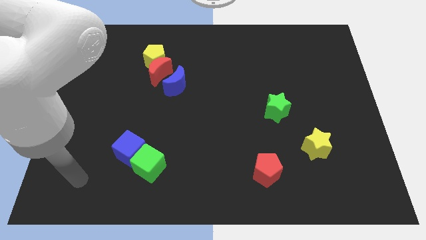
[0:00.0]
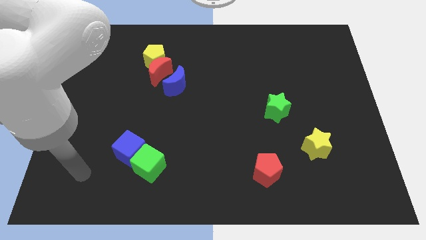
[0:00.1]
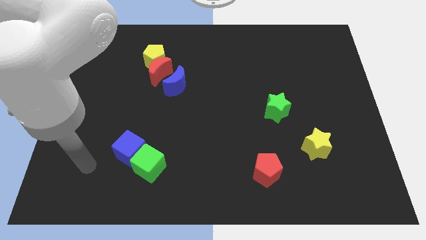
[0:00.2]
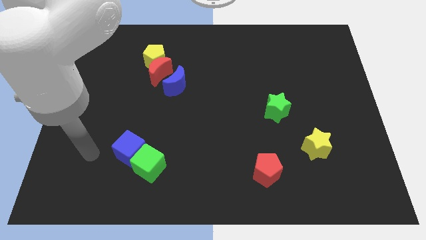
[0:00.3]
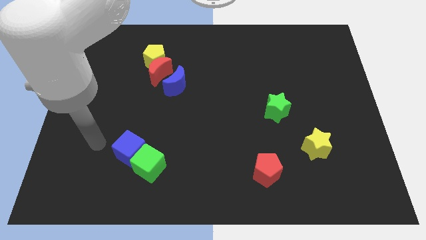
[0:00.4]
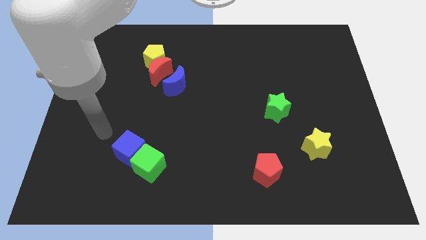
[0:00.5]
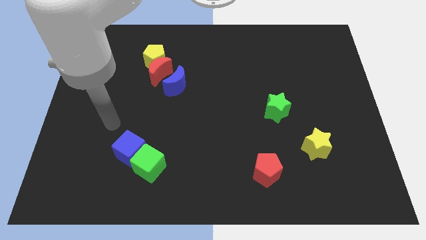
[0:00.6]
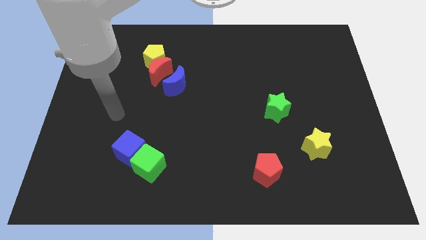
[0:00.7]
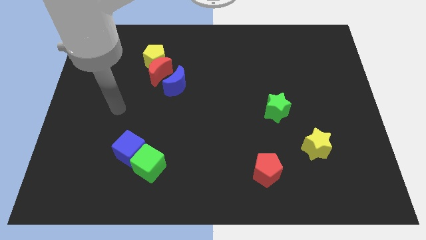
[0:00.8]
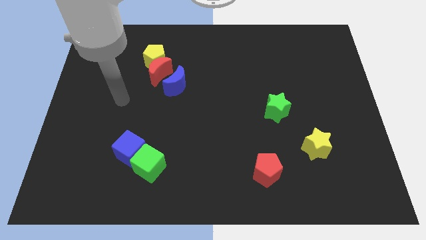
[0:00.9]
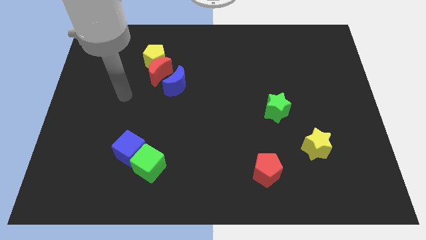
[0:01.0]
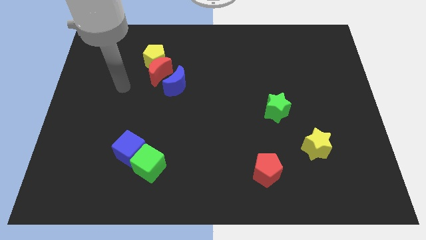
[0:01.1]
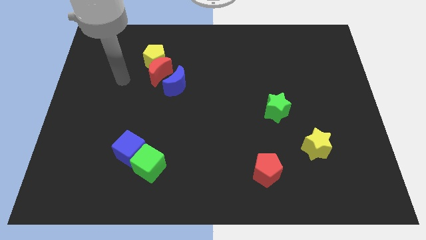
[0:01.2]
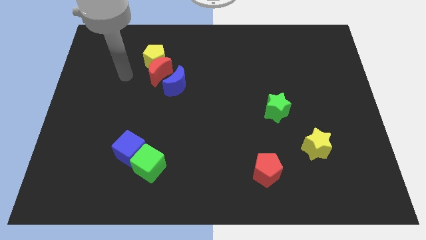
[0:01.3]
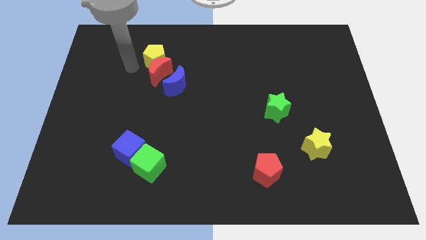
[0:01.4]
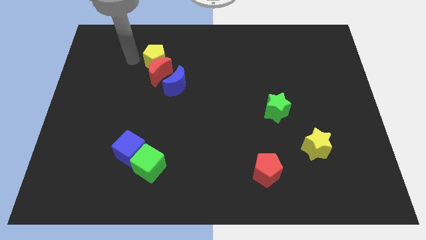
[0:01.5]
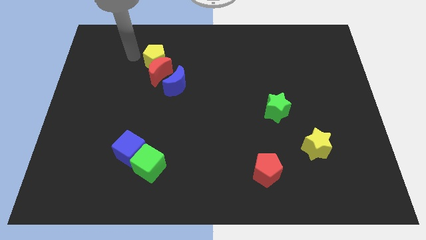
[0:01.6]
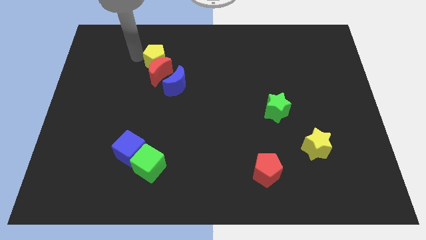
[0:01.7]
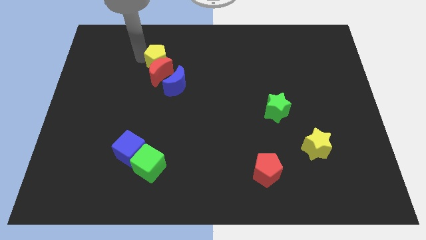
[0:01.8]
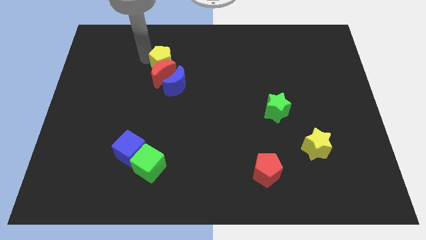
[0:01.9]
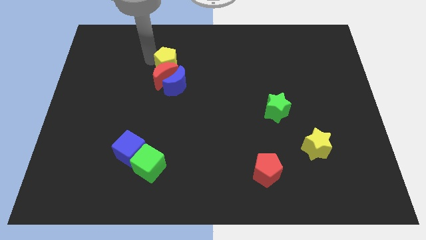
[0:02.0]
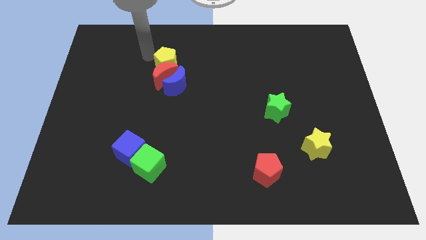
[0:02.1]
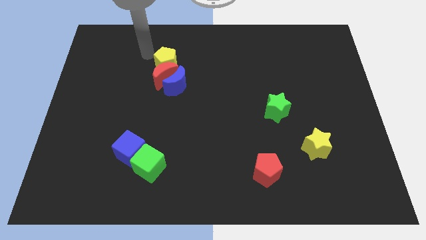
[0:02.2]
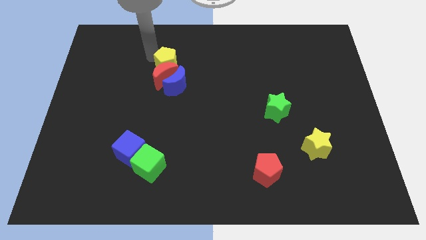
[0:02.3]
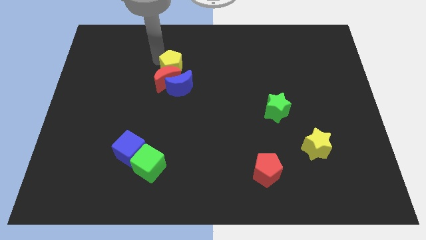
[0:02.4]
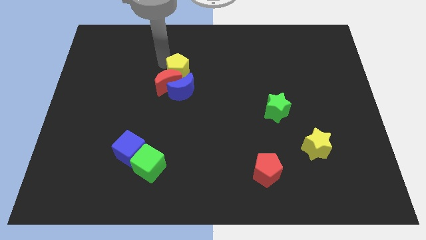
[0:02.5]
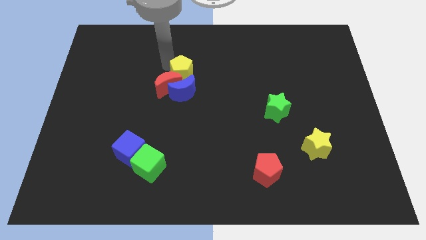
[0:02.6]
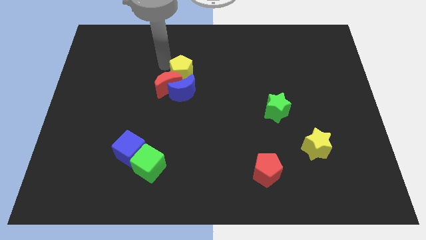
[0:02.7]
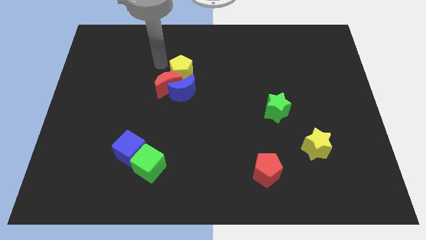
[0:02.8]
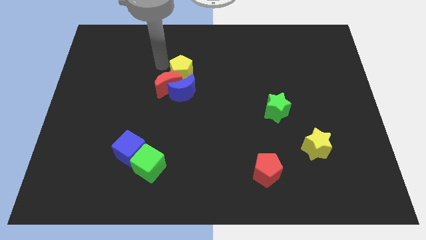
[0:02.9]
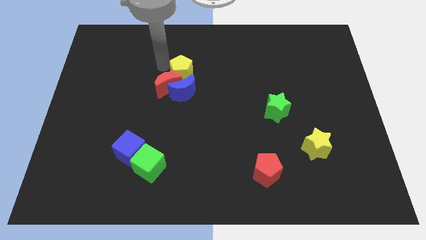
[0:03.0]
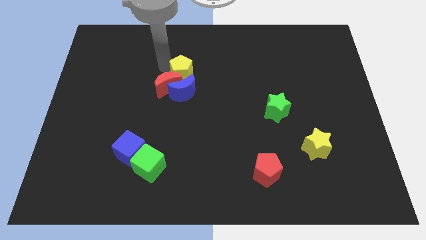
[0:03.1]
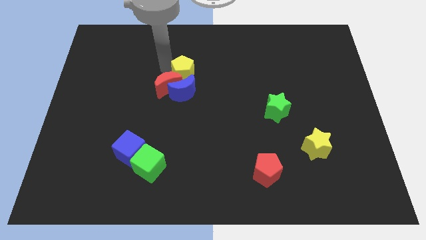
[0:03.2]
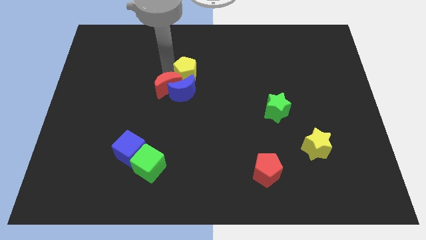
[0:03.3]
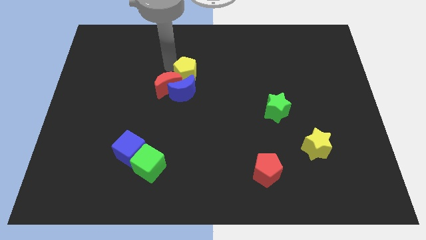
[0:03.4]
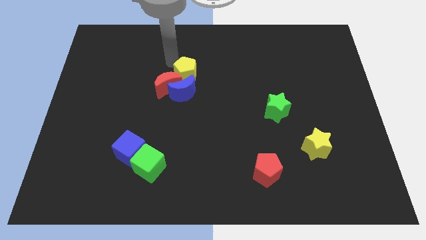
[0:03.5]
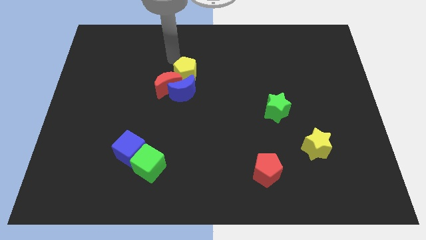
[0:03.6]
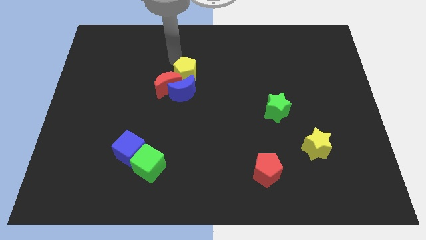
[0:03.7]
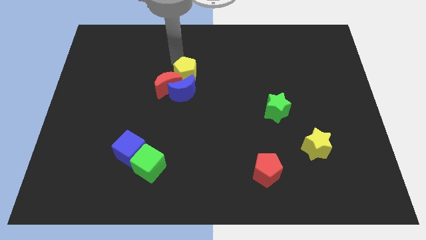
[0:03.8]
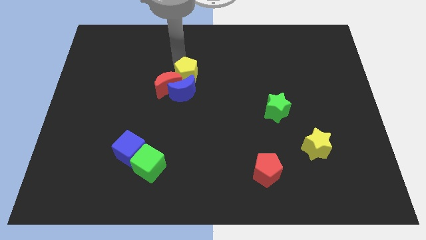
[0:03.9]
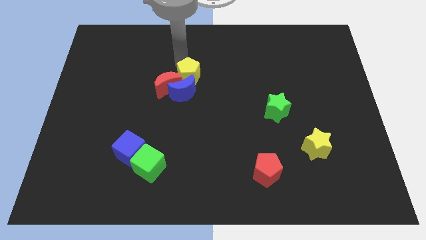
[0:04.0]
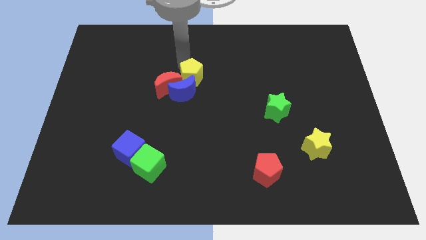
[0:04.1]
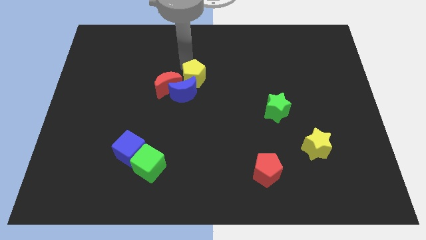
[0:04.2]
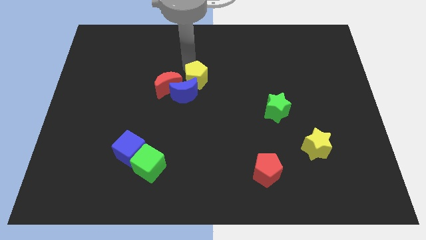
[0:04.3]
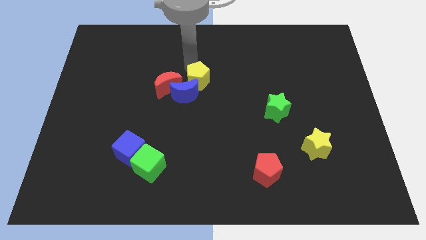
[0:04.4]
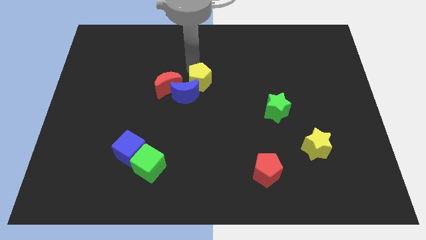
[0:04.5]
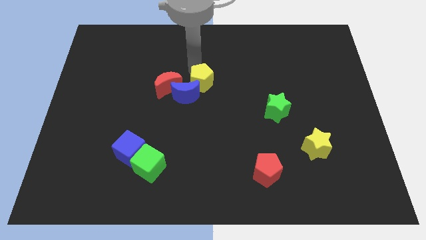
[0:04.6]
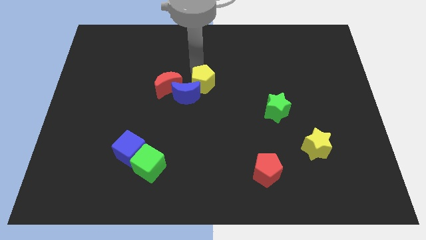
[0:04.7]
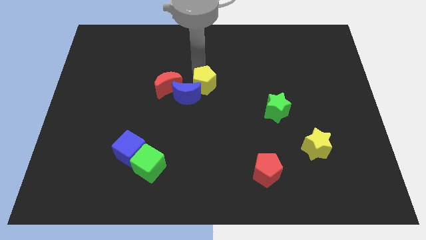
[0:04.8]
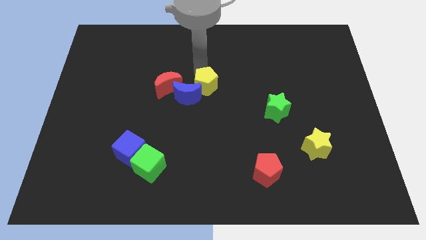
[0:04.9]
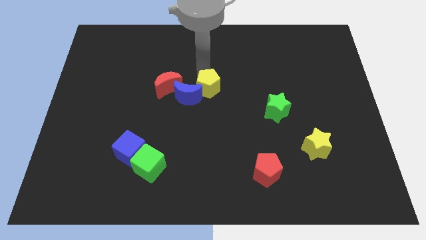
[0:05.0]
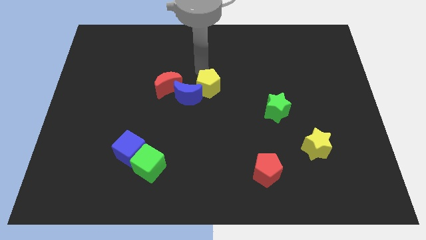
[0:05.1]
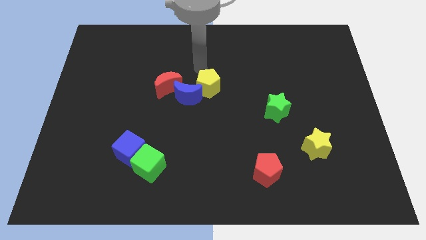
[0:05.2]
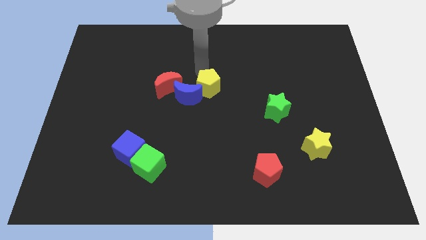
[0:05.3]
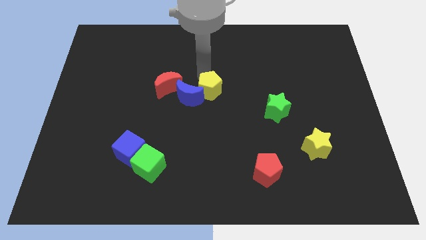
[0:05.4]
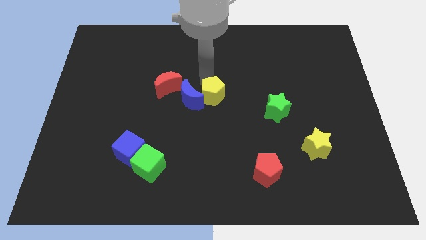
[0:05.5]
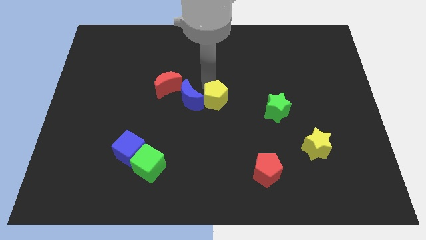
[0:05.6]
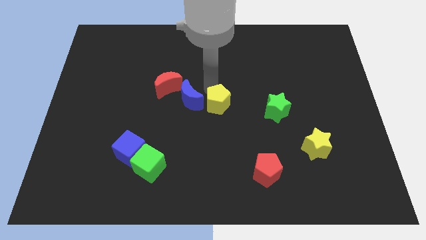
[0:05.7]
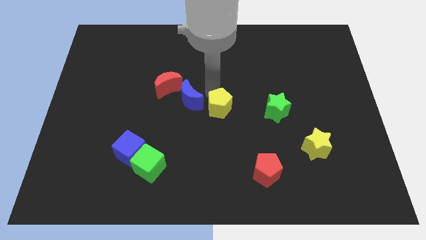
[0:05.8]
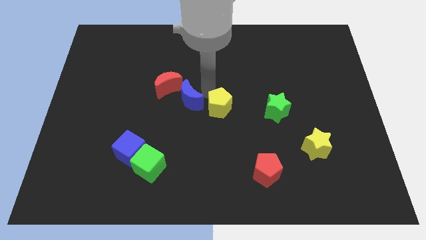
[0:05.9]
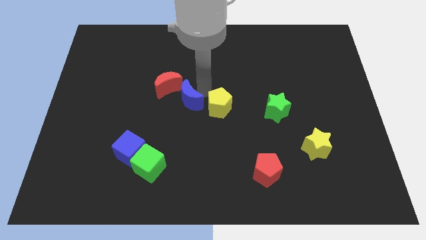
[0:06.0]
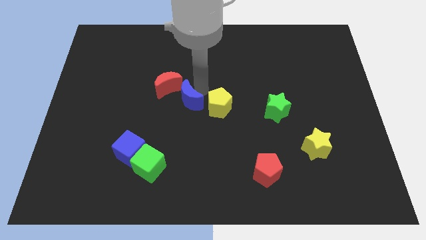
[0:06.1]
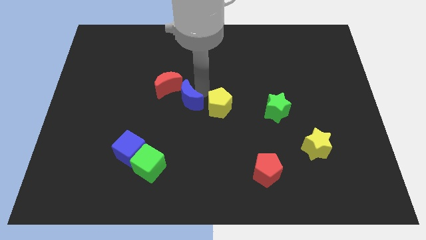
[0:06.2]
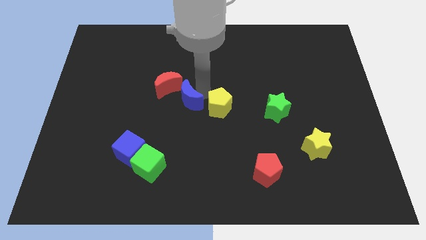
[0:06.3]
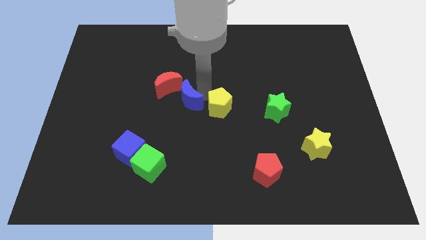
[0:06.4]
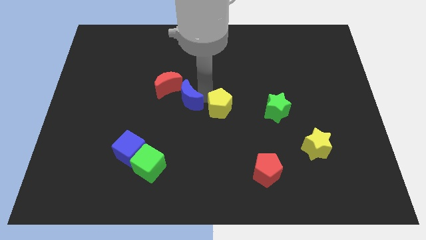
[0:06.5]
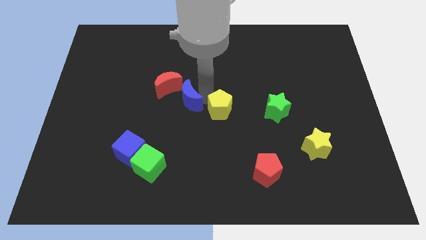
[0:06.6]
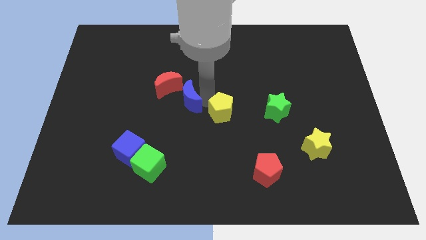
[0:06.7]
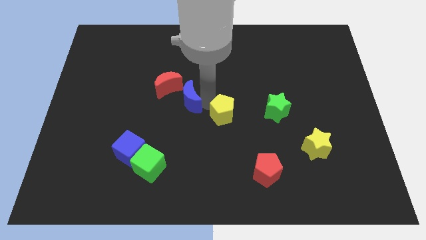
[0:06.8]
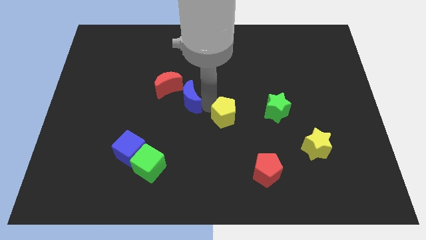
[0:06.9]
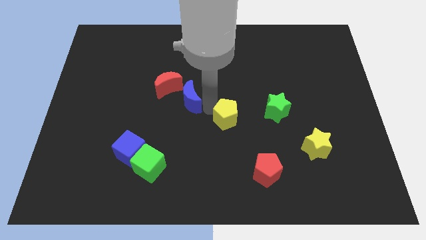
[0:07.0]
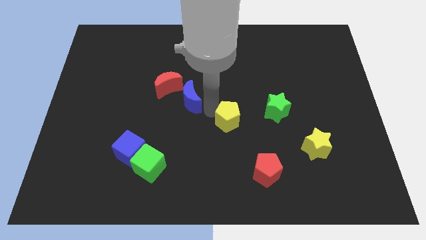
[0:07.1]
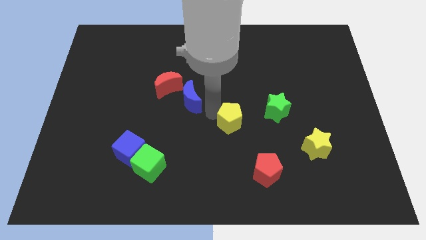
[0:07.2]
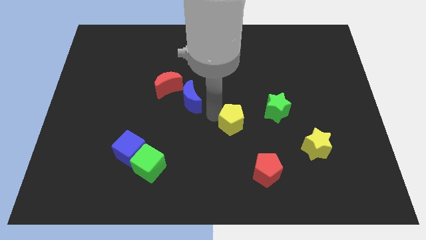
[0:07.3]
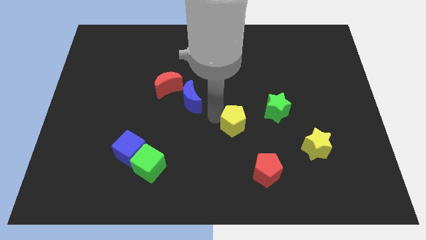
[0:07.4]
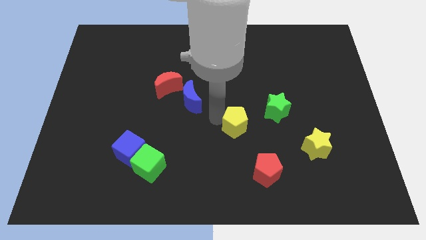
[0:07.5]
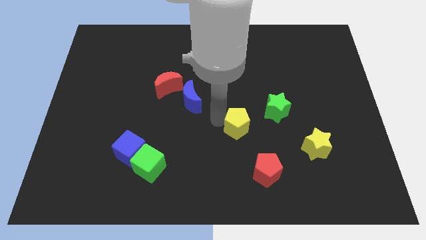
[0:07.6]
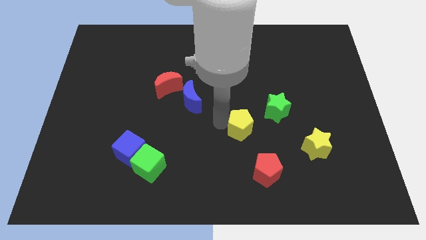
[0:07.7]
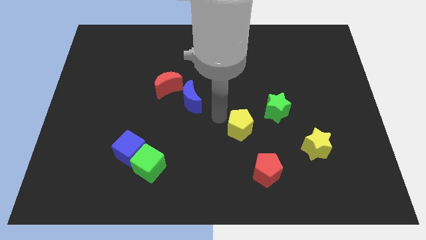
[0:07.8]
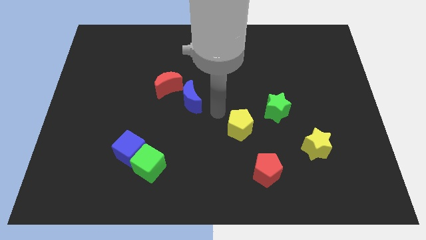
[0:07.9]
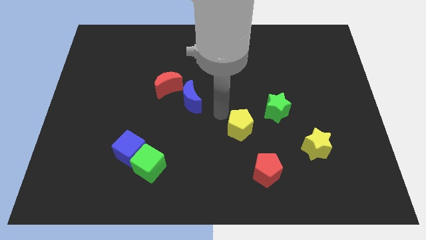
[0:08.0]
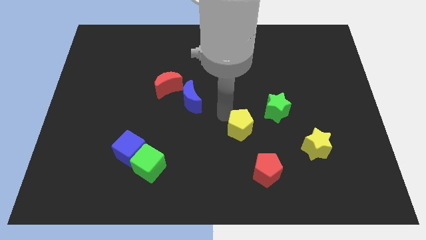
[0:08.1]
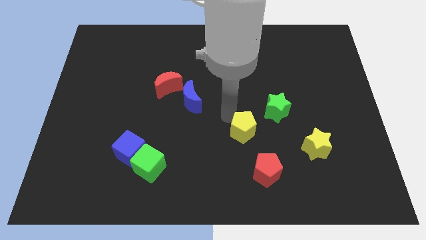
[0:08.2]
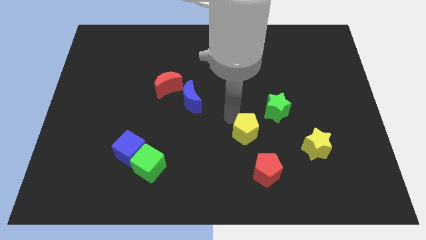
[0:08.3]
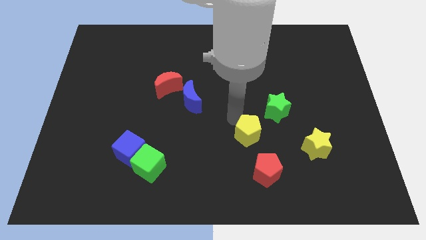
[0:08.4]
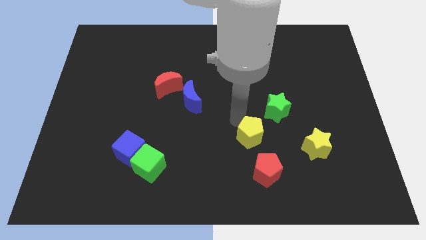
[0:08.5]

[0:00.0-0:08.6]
push the yellow pentagon to the left side of the yellow star
